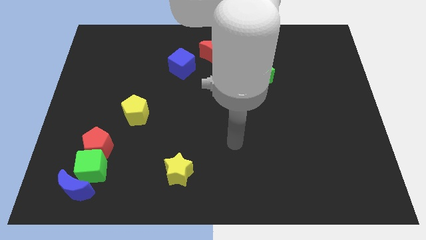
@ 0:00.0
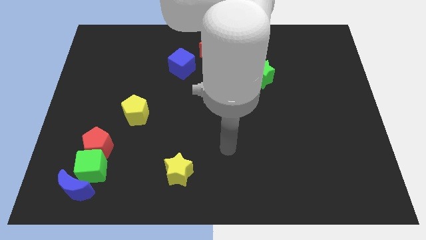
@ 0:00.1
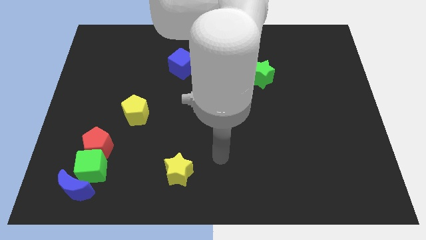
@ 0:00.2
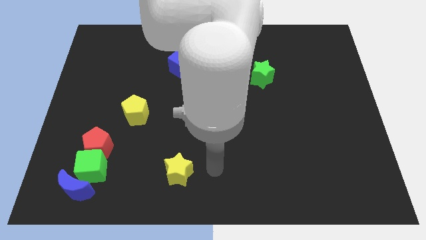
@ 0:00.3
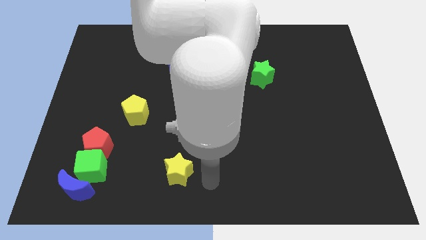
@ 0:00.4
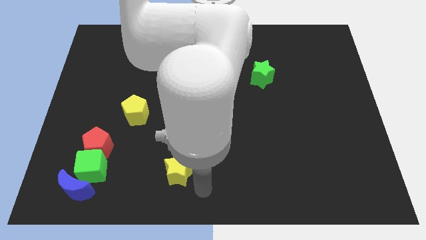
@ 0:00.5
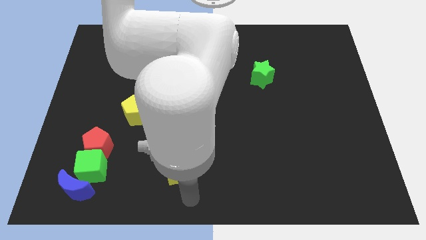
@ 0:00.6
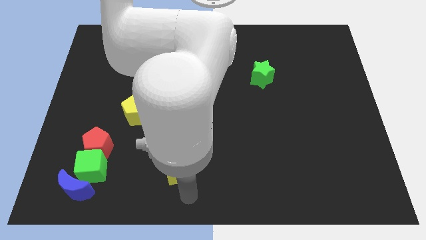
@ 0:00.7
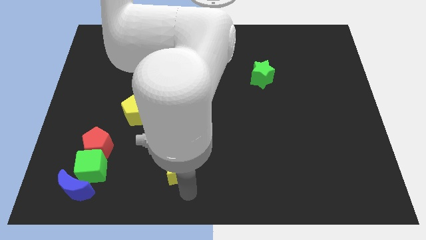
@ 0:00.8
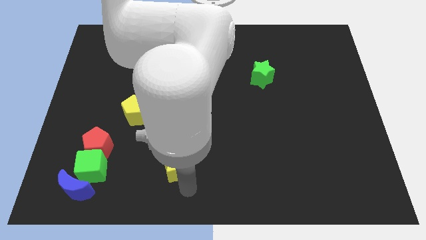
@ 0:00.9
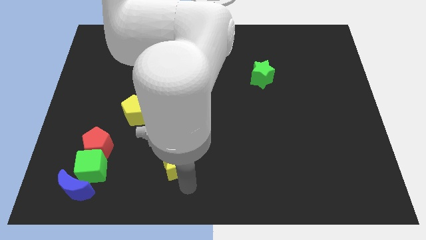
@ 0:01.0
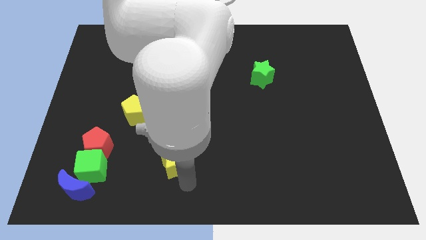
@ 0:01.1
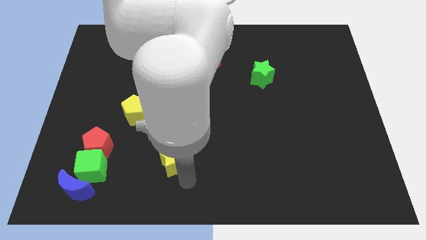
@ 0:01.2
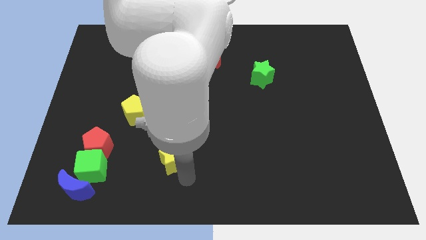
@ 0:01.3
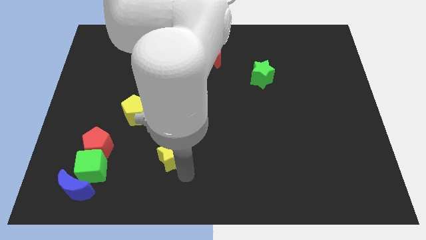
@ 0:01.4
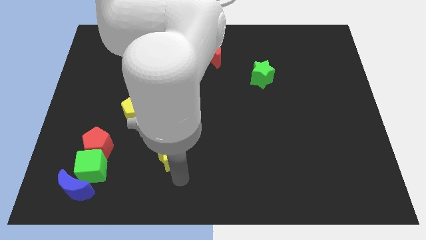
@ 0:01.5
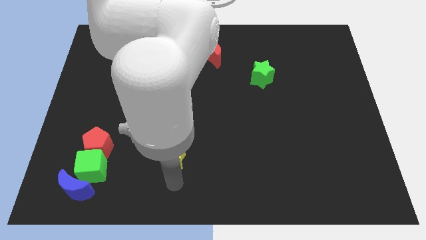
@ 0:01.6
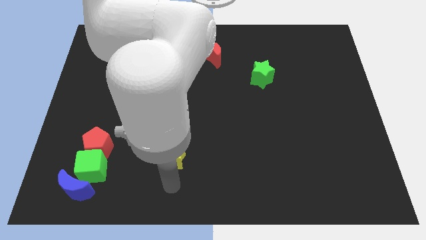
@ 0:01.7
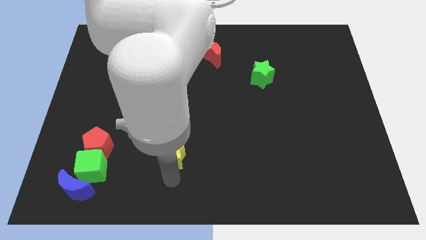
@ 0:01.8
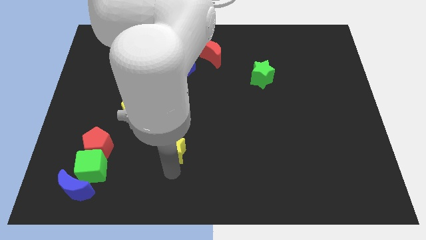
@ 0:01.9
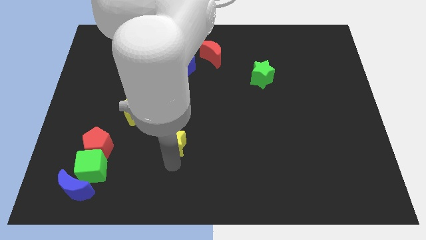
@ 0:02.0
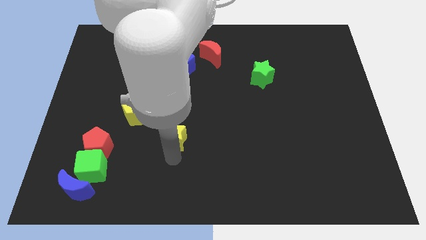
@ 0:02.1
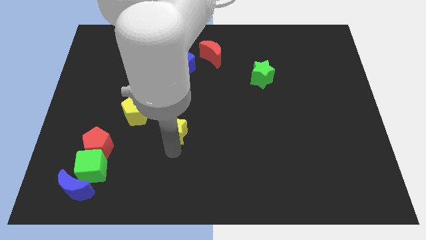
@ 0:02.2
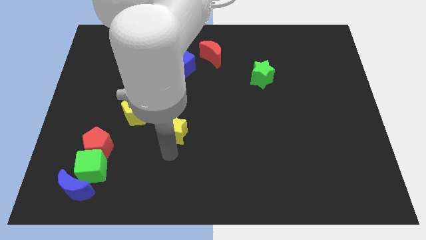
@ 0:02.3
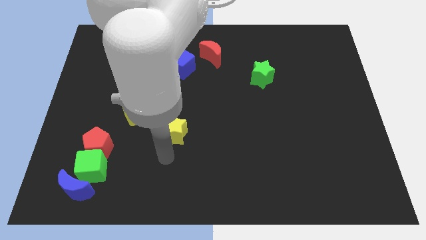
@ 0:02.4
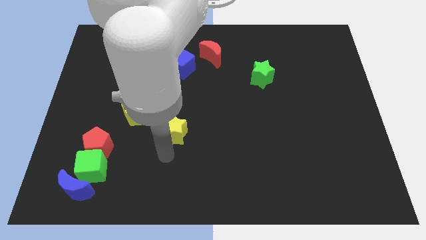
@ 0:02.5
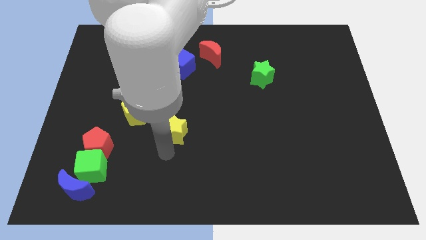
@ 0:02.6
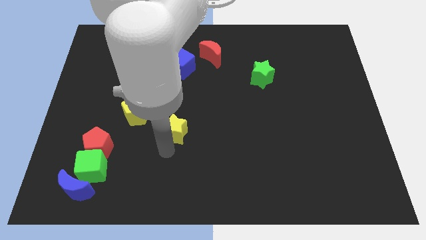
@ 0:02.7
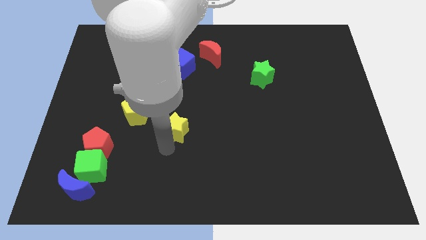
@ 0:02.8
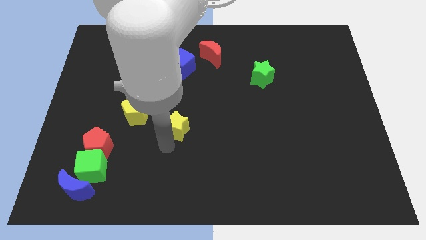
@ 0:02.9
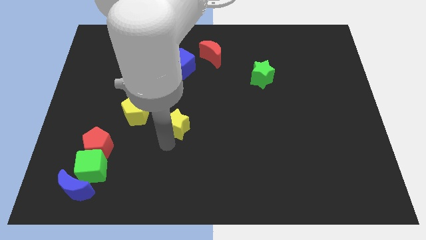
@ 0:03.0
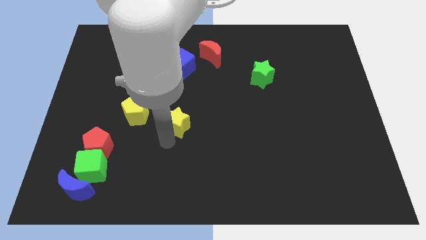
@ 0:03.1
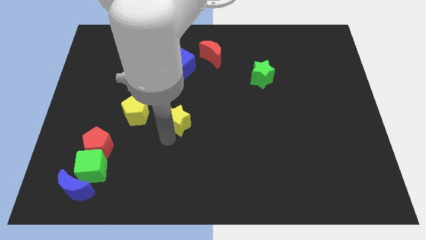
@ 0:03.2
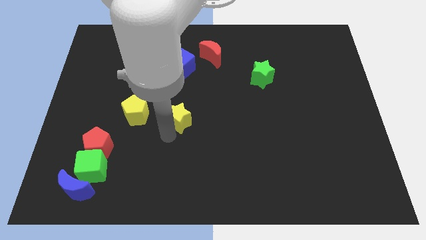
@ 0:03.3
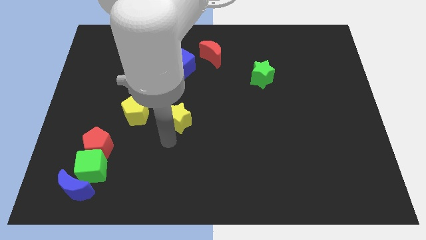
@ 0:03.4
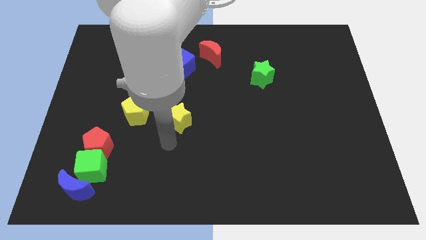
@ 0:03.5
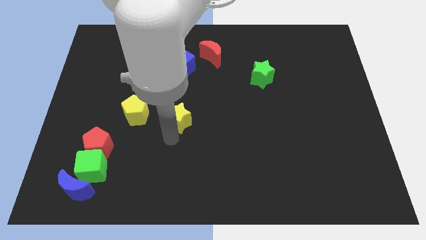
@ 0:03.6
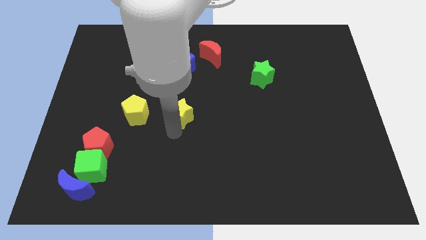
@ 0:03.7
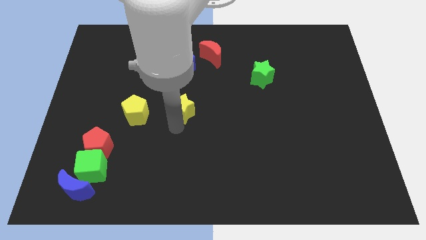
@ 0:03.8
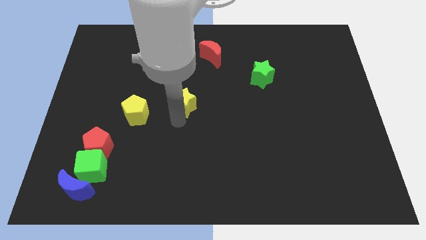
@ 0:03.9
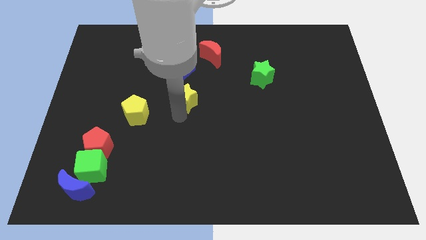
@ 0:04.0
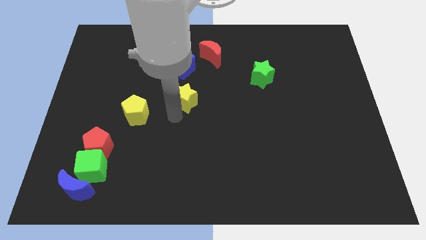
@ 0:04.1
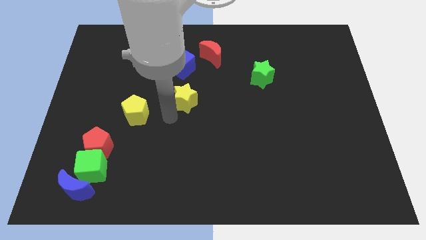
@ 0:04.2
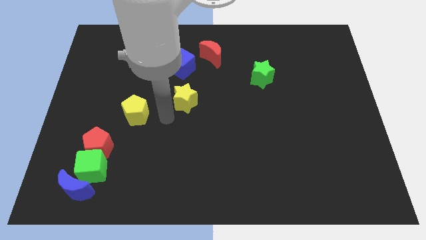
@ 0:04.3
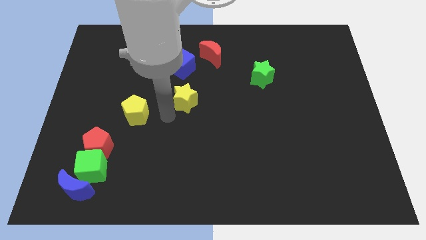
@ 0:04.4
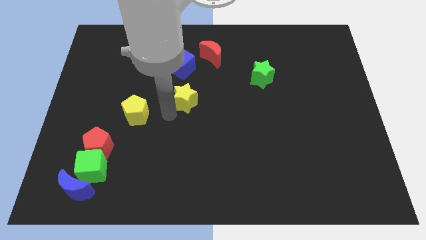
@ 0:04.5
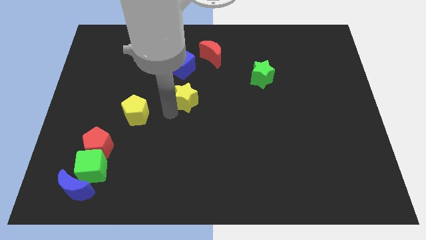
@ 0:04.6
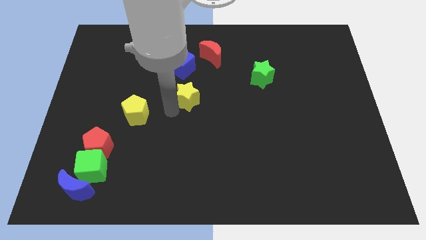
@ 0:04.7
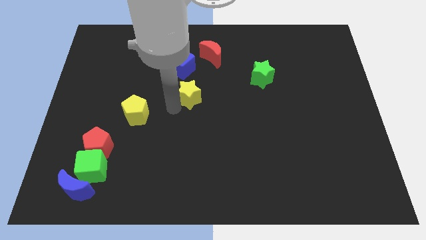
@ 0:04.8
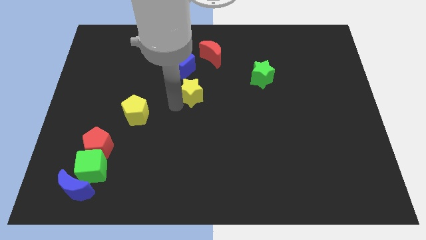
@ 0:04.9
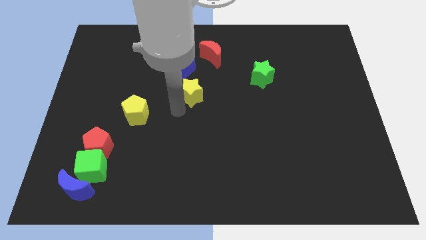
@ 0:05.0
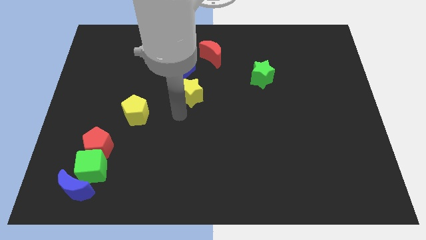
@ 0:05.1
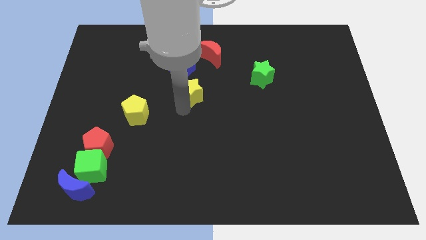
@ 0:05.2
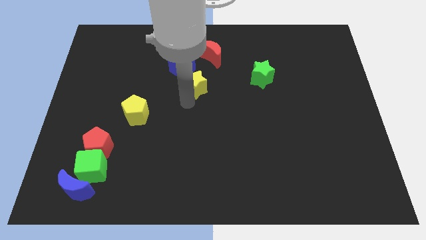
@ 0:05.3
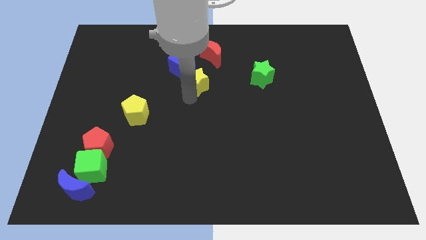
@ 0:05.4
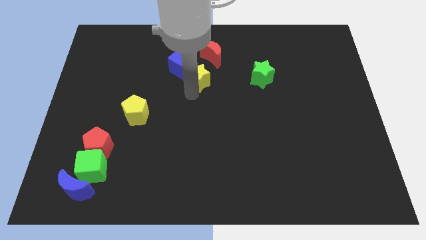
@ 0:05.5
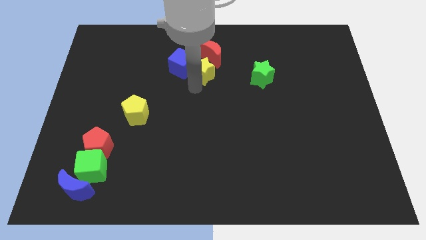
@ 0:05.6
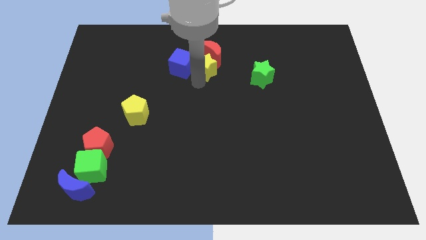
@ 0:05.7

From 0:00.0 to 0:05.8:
move the yellow star close to the red moon

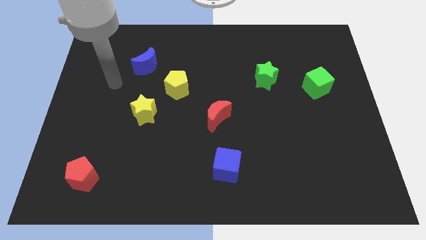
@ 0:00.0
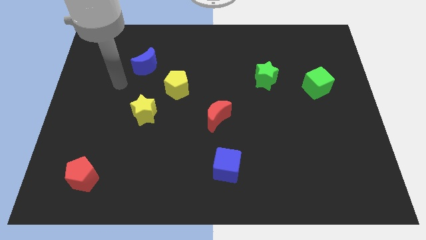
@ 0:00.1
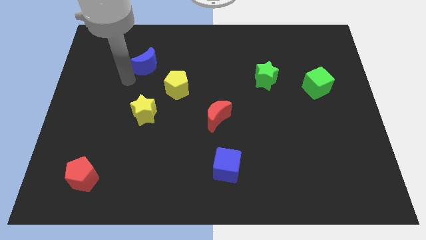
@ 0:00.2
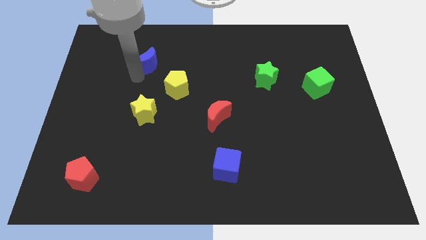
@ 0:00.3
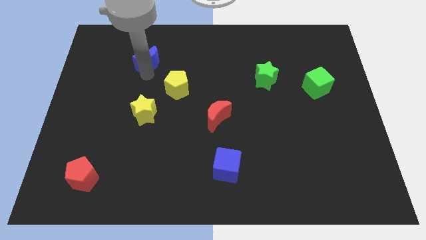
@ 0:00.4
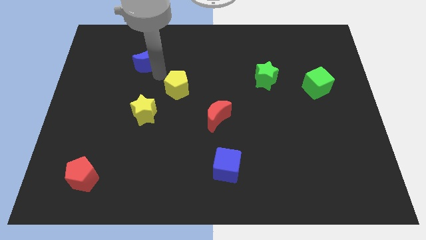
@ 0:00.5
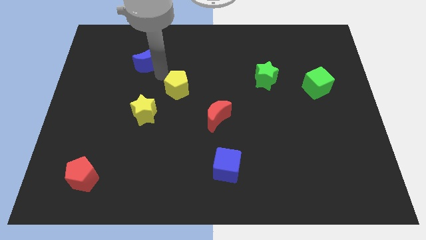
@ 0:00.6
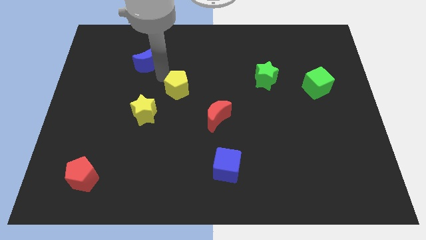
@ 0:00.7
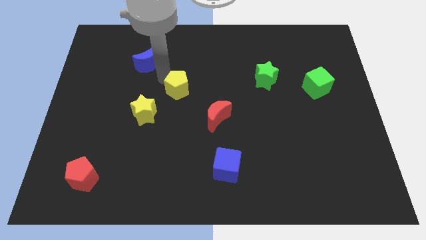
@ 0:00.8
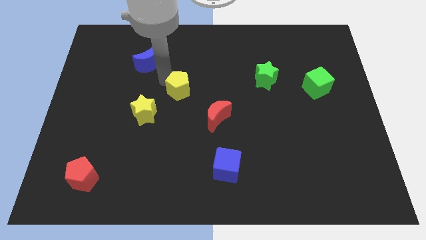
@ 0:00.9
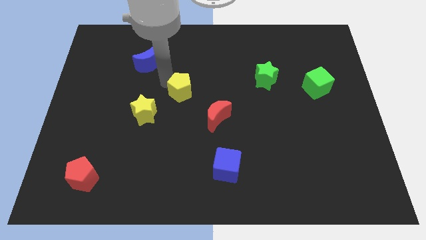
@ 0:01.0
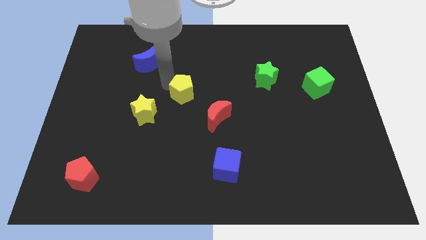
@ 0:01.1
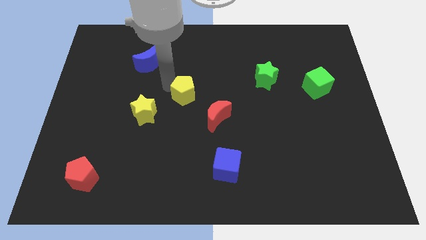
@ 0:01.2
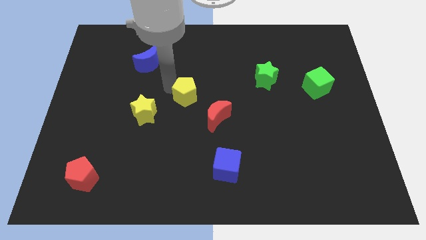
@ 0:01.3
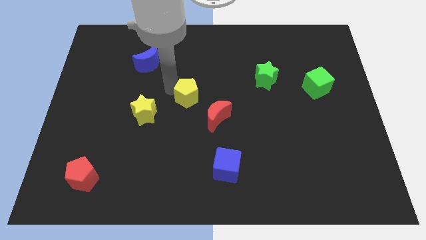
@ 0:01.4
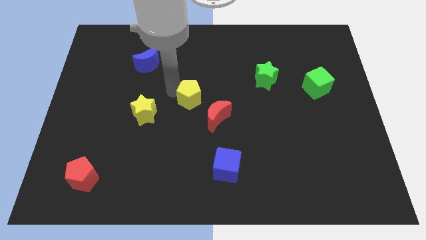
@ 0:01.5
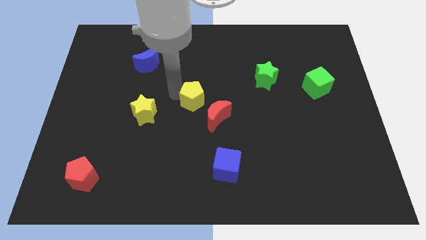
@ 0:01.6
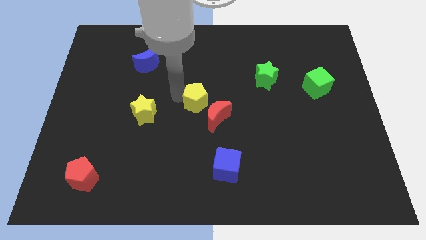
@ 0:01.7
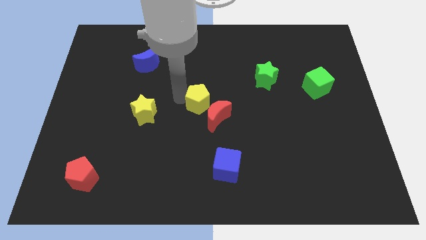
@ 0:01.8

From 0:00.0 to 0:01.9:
move the yellow pentagon close to the red moon
